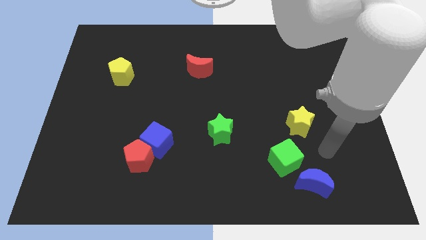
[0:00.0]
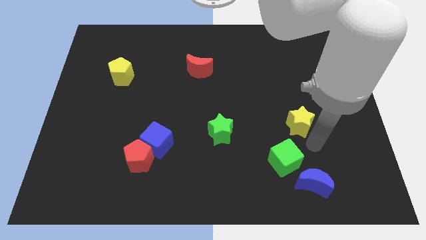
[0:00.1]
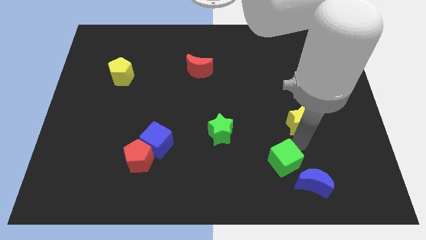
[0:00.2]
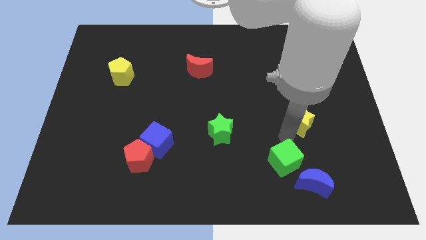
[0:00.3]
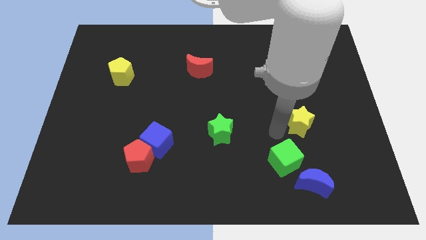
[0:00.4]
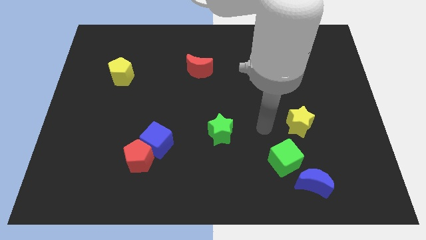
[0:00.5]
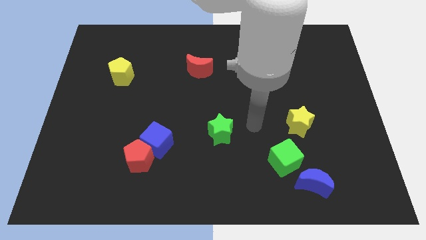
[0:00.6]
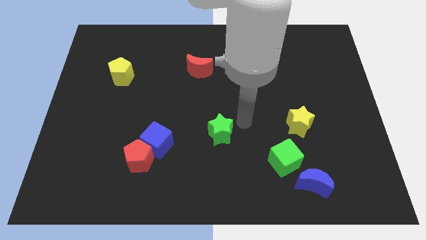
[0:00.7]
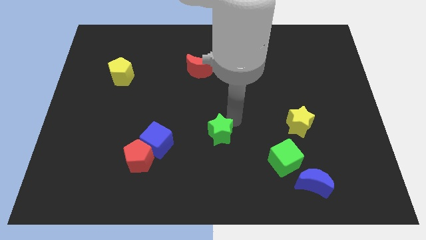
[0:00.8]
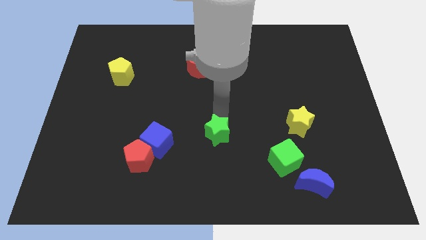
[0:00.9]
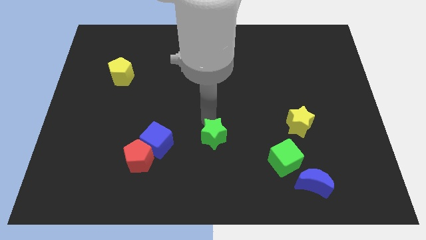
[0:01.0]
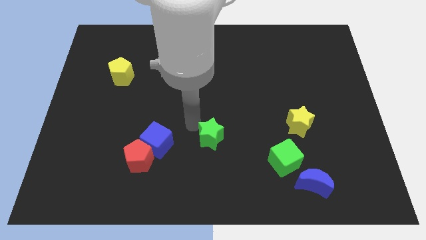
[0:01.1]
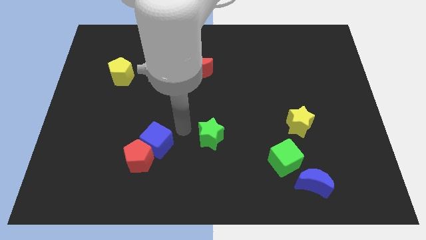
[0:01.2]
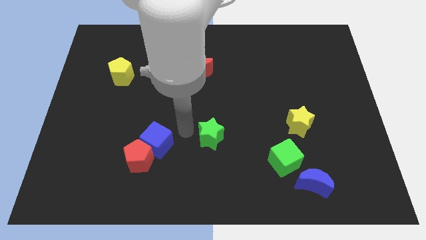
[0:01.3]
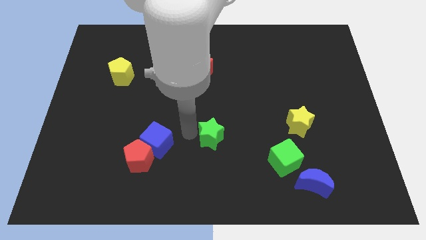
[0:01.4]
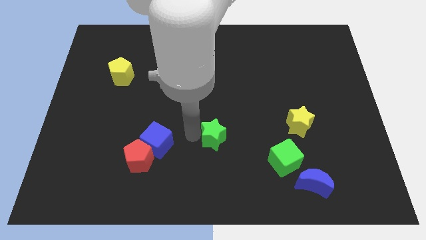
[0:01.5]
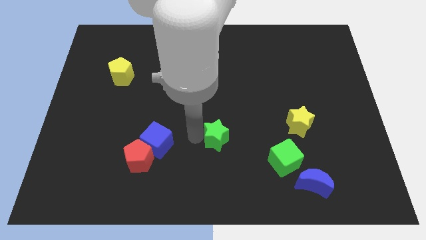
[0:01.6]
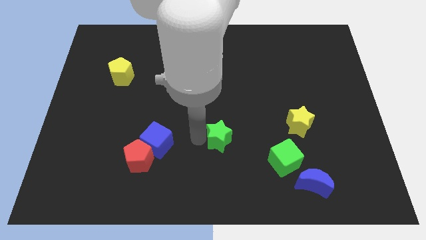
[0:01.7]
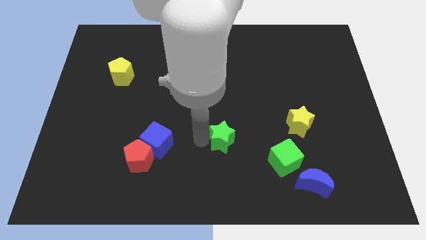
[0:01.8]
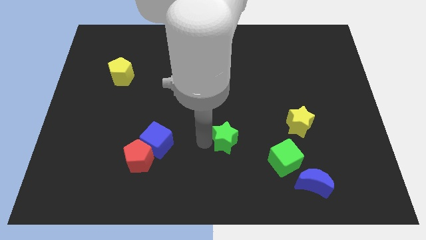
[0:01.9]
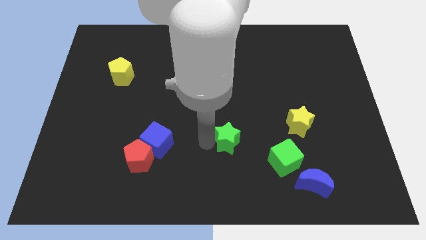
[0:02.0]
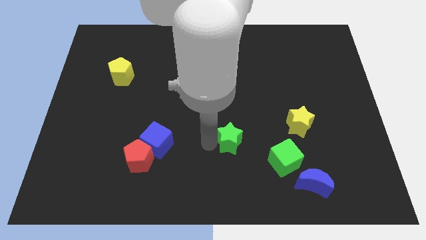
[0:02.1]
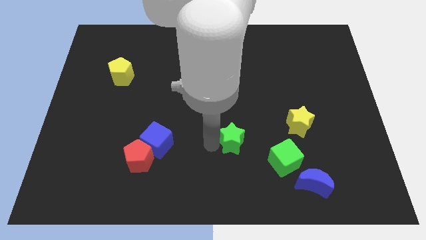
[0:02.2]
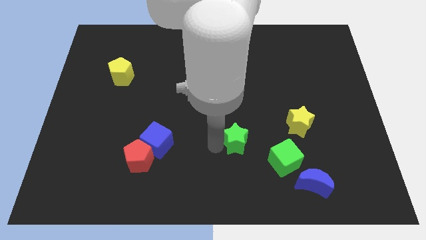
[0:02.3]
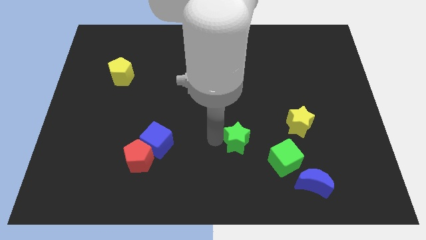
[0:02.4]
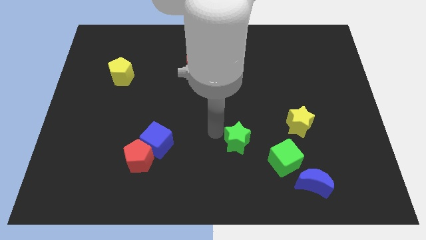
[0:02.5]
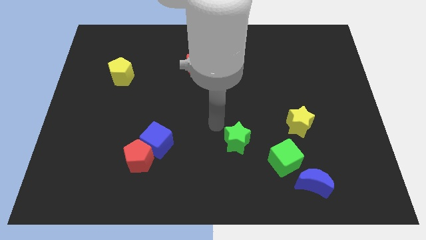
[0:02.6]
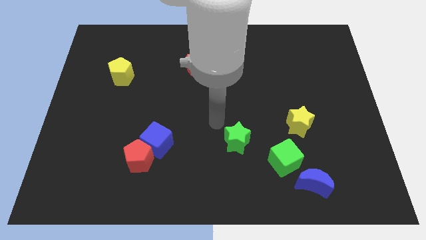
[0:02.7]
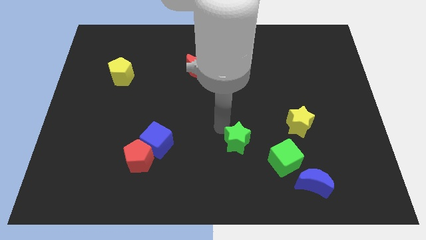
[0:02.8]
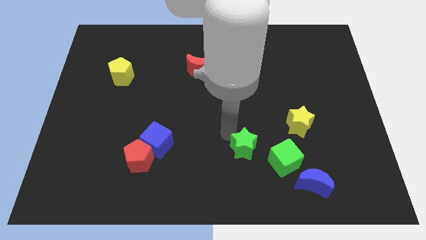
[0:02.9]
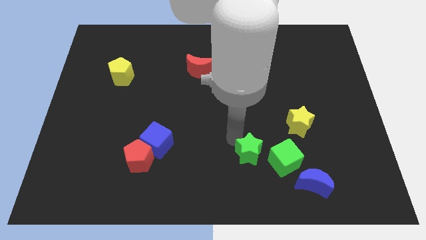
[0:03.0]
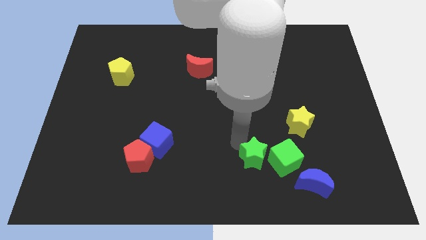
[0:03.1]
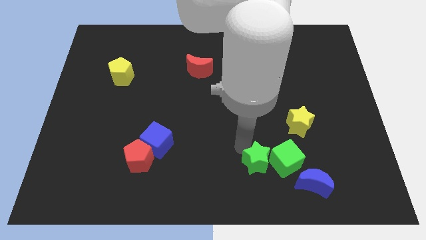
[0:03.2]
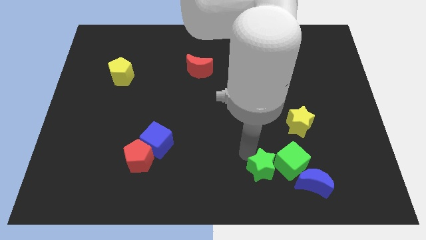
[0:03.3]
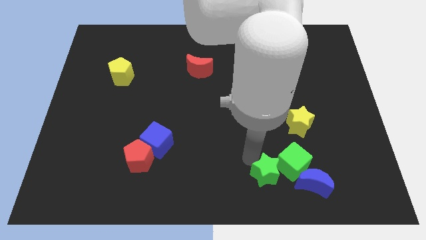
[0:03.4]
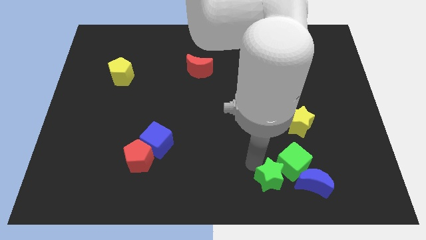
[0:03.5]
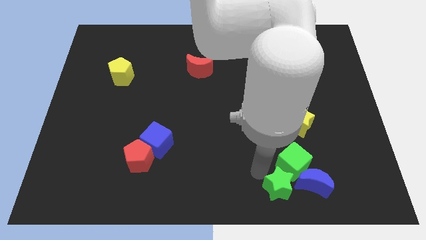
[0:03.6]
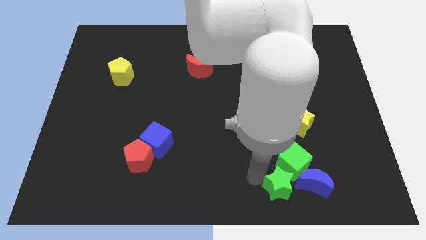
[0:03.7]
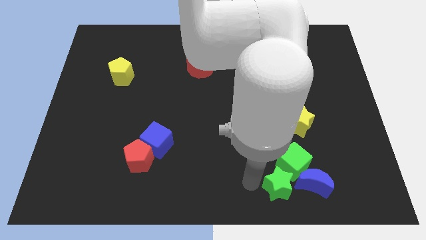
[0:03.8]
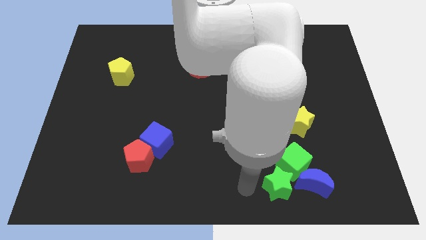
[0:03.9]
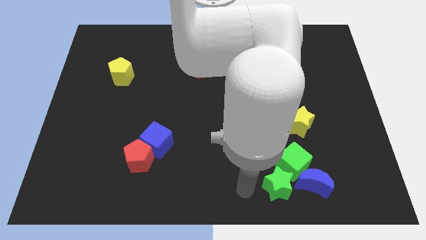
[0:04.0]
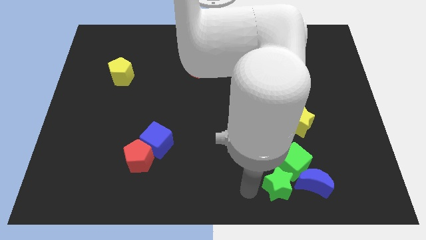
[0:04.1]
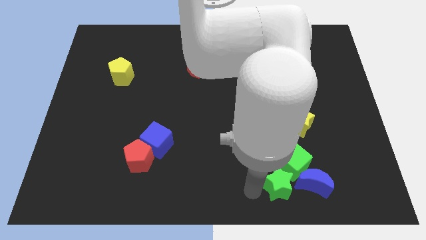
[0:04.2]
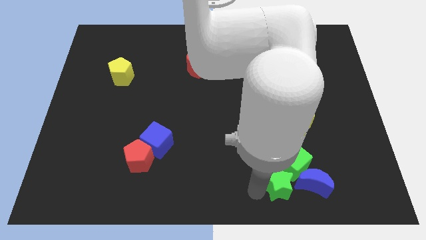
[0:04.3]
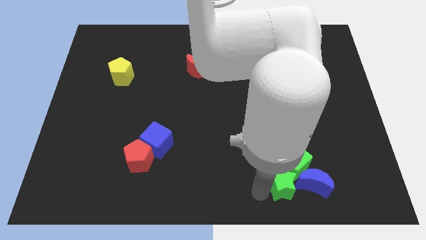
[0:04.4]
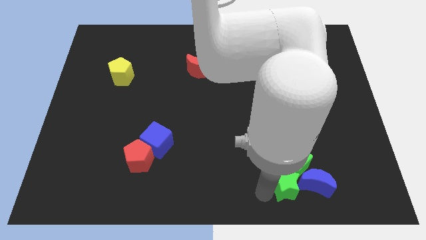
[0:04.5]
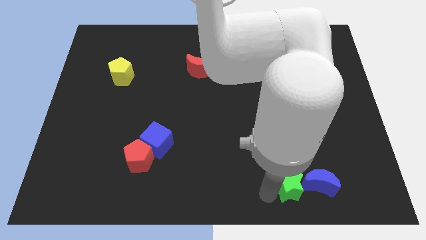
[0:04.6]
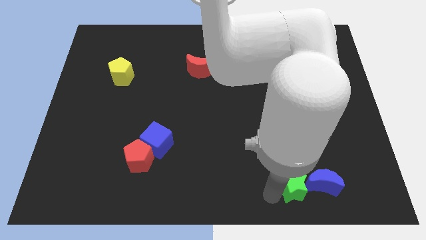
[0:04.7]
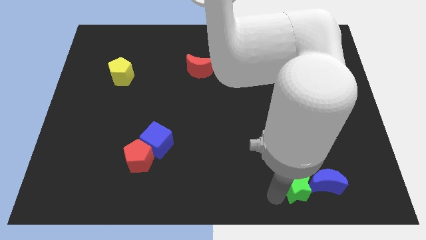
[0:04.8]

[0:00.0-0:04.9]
push the green star to the blue moon

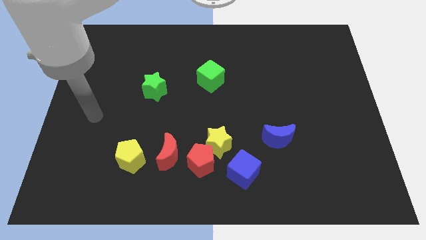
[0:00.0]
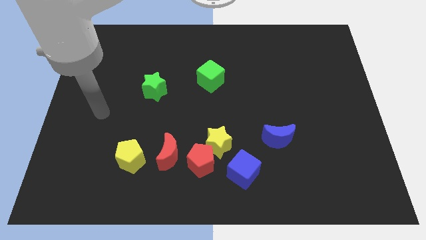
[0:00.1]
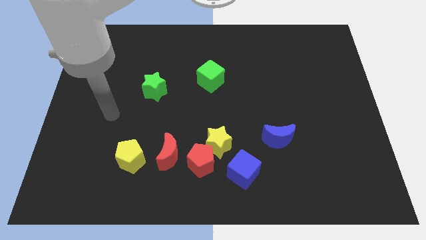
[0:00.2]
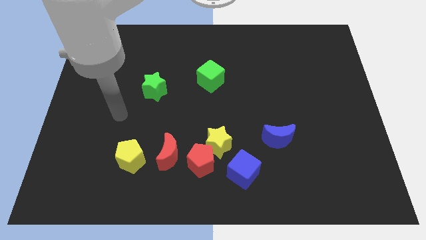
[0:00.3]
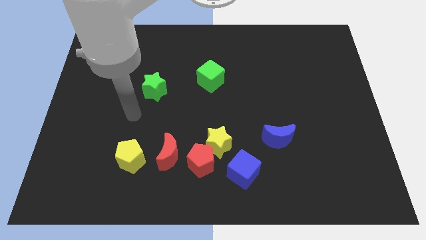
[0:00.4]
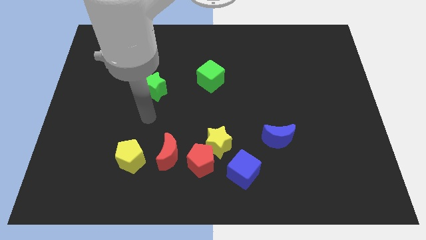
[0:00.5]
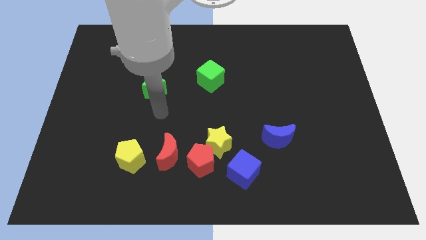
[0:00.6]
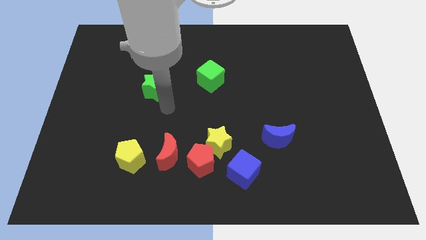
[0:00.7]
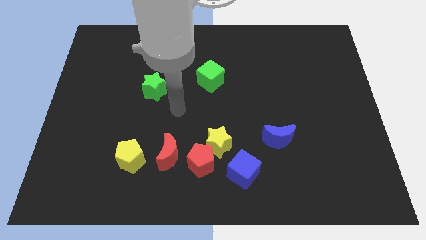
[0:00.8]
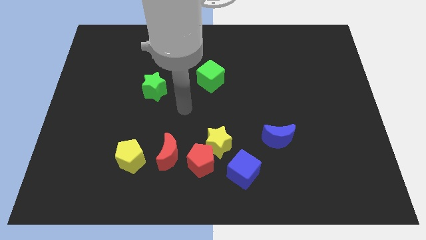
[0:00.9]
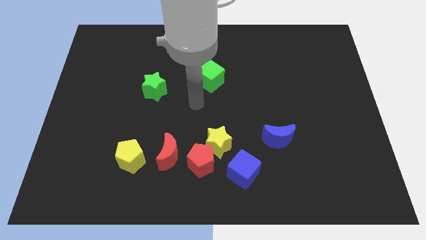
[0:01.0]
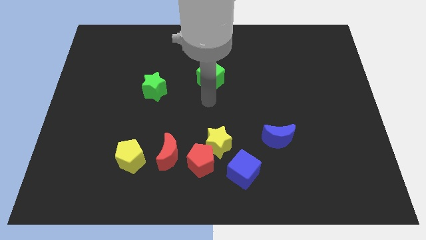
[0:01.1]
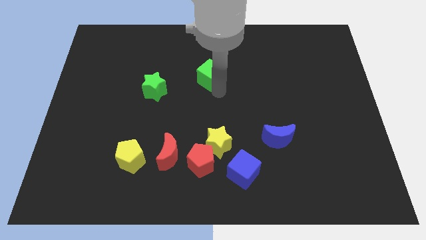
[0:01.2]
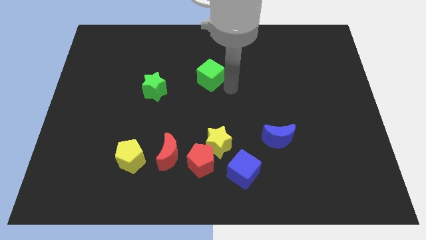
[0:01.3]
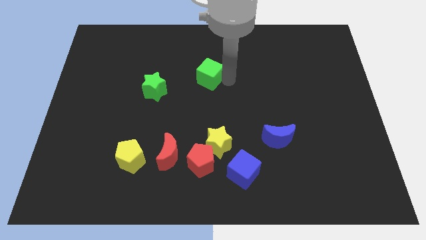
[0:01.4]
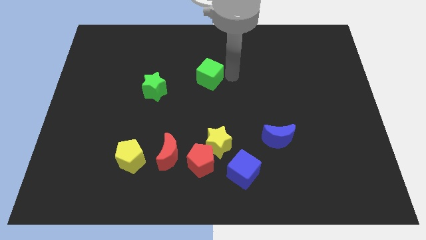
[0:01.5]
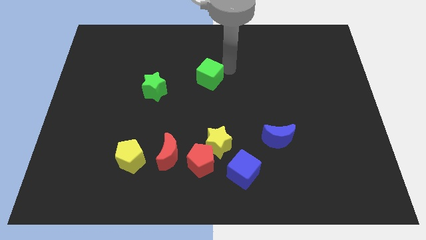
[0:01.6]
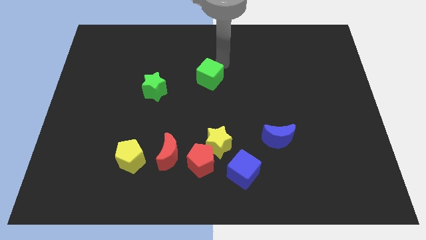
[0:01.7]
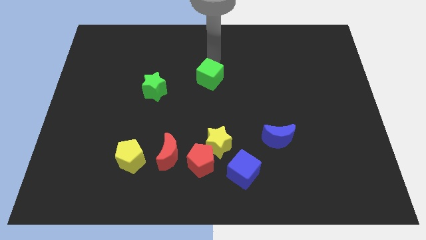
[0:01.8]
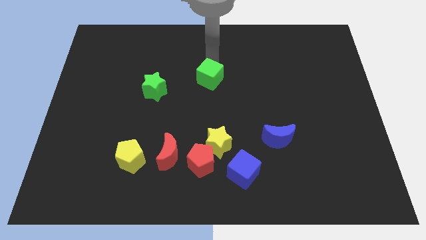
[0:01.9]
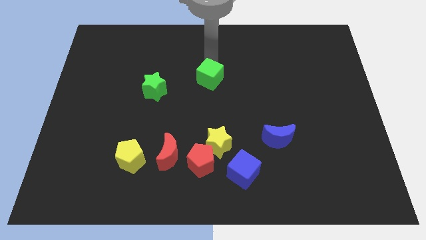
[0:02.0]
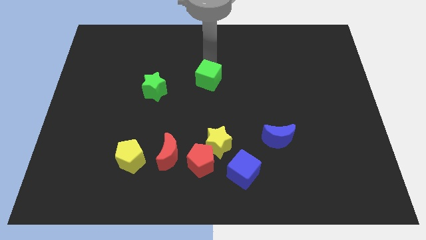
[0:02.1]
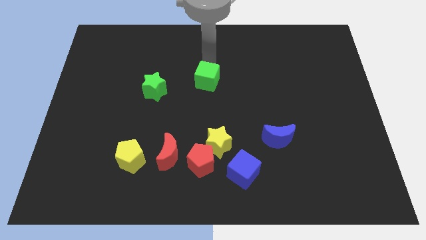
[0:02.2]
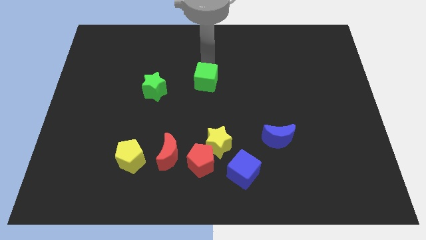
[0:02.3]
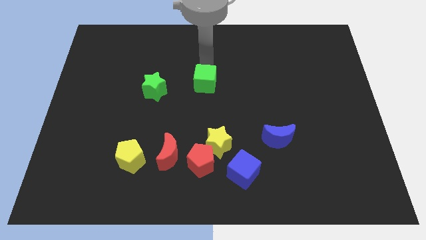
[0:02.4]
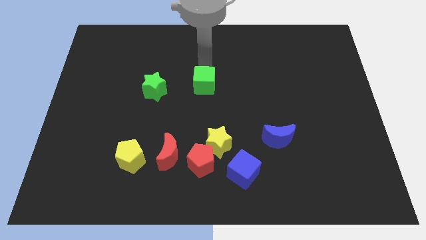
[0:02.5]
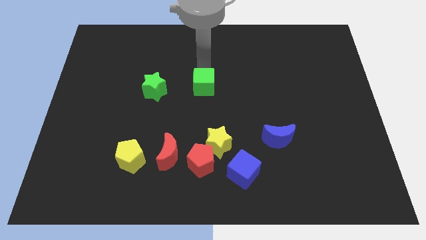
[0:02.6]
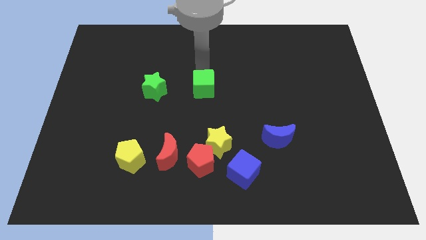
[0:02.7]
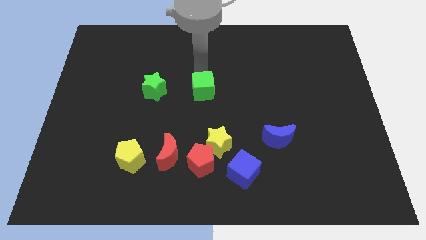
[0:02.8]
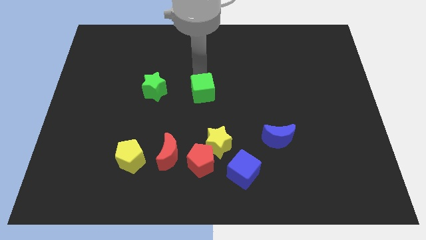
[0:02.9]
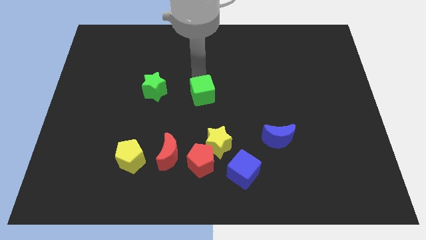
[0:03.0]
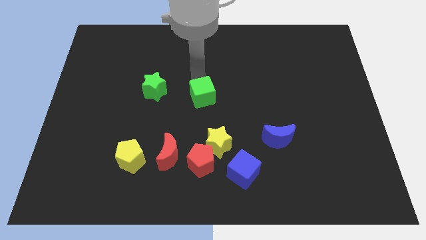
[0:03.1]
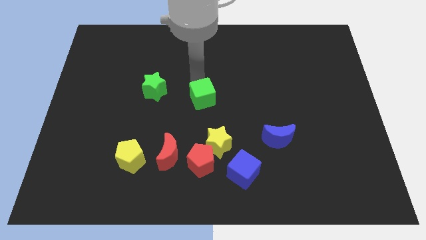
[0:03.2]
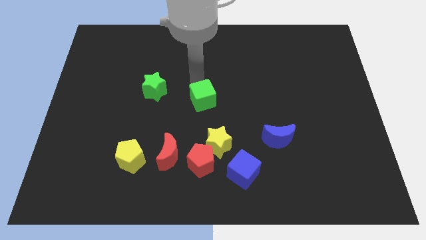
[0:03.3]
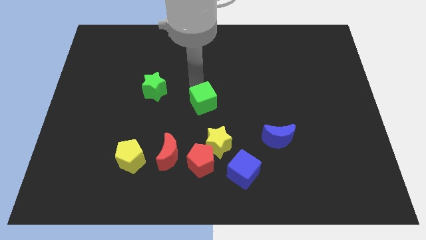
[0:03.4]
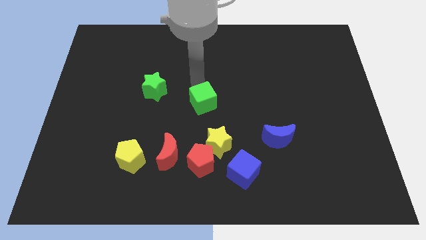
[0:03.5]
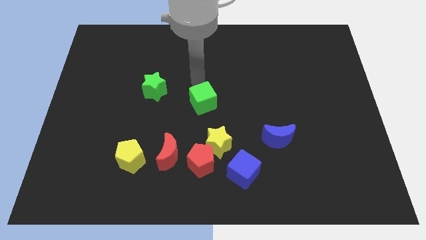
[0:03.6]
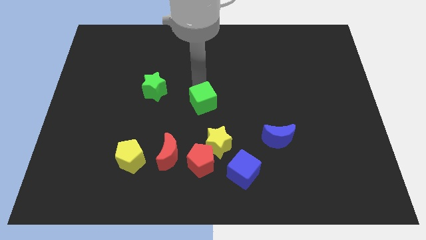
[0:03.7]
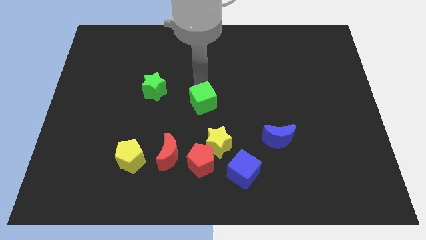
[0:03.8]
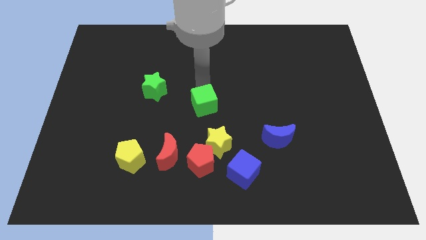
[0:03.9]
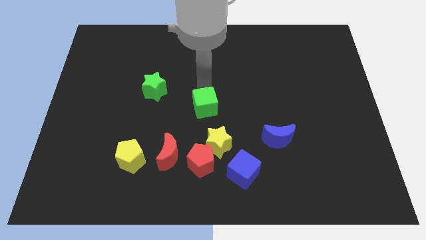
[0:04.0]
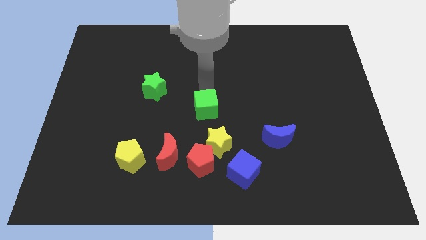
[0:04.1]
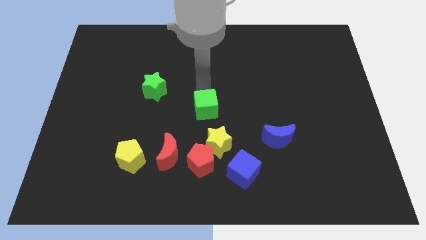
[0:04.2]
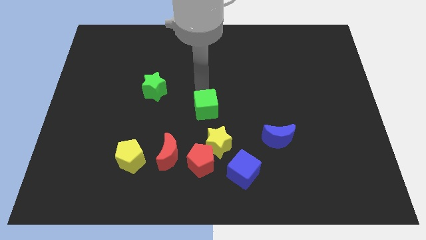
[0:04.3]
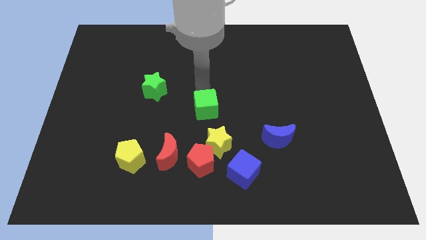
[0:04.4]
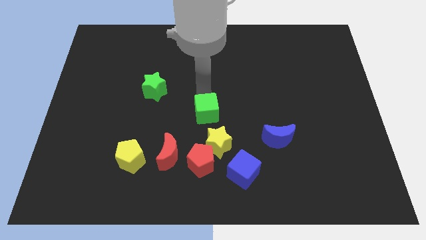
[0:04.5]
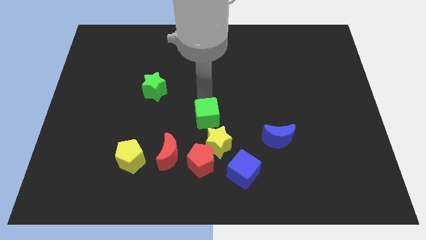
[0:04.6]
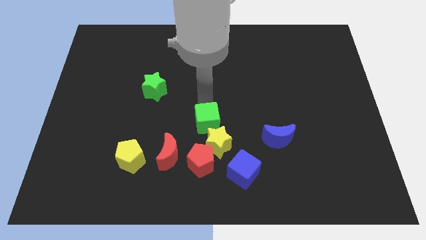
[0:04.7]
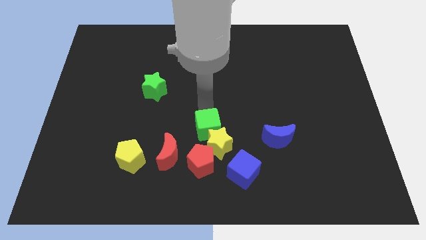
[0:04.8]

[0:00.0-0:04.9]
push the green cube next to the yellow star
